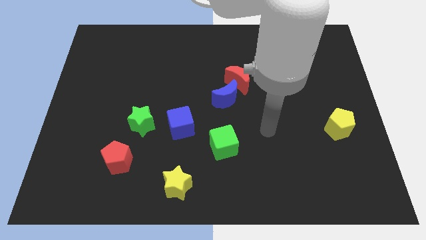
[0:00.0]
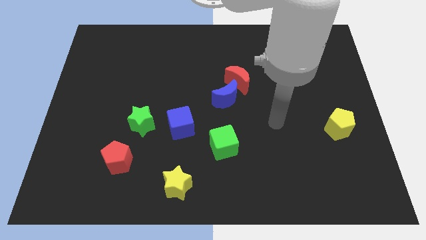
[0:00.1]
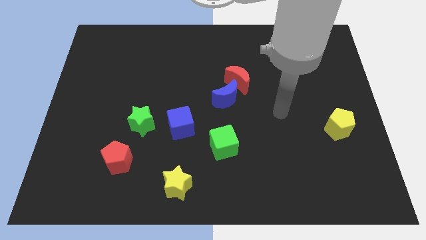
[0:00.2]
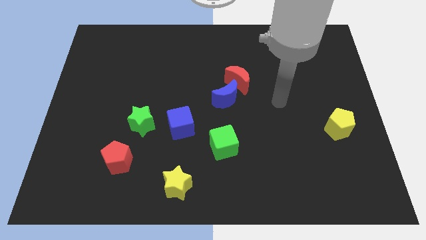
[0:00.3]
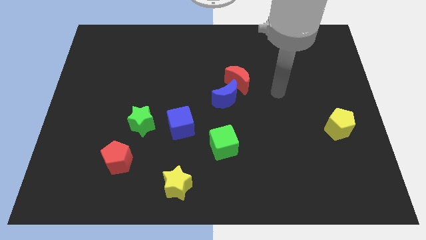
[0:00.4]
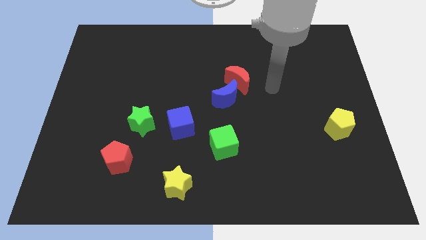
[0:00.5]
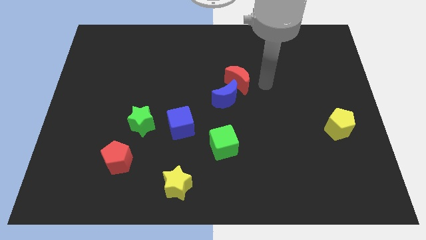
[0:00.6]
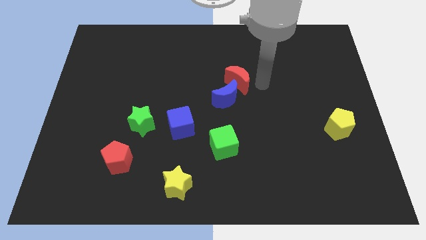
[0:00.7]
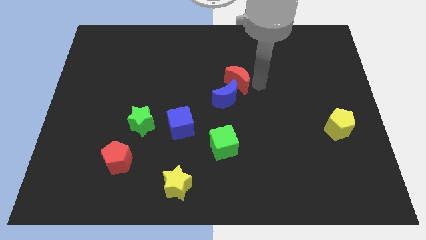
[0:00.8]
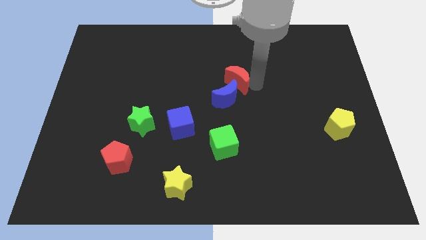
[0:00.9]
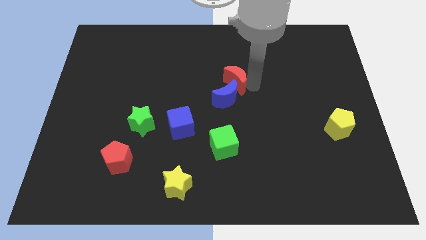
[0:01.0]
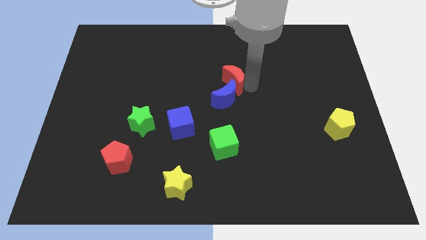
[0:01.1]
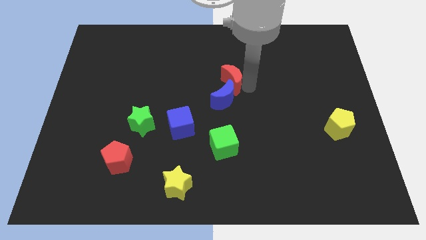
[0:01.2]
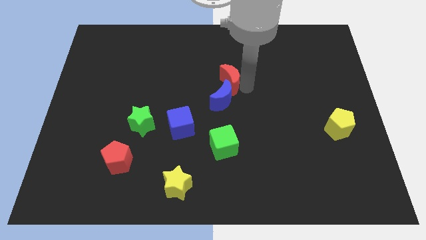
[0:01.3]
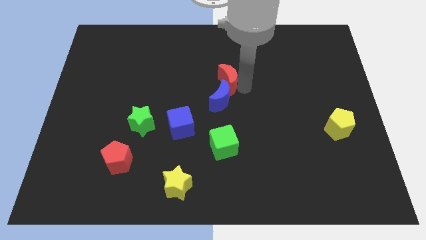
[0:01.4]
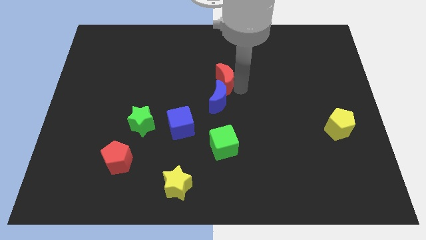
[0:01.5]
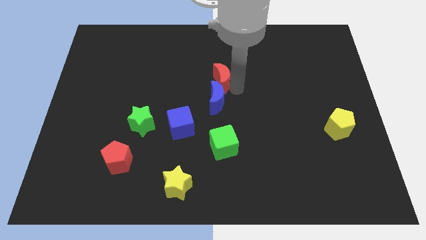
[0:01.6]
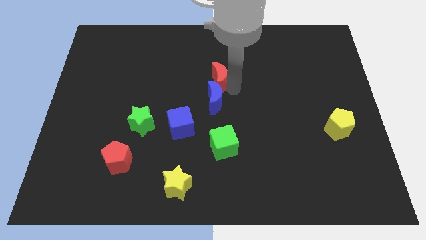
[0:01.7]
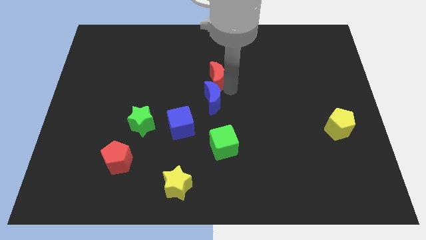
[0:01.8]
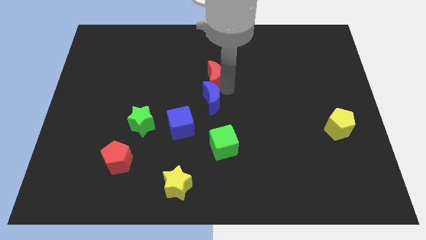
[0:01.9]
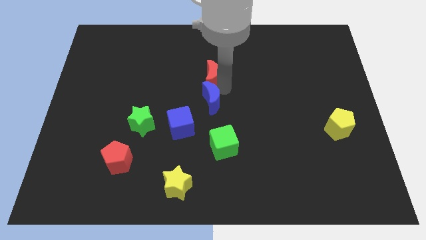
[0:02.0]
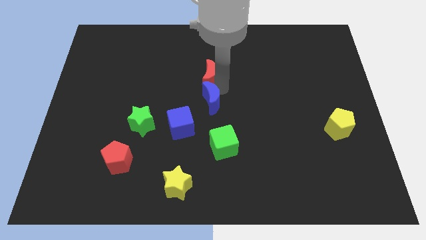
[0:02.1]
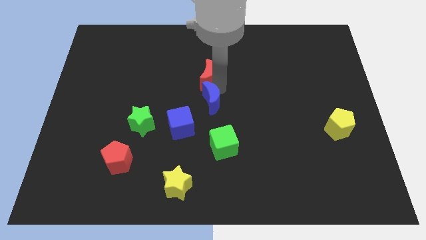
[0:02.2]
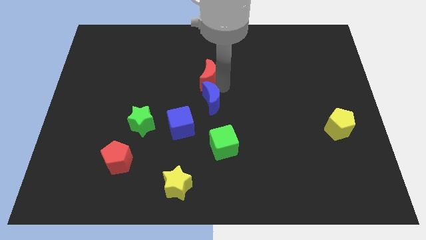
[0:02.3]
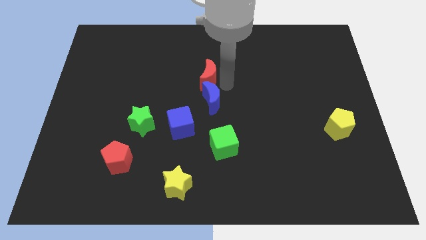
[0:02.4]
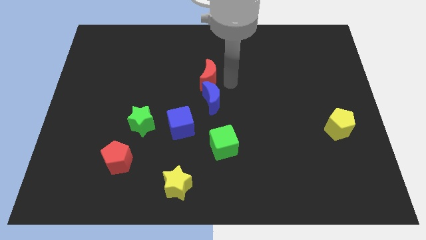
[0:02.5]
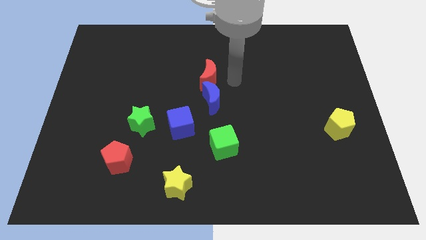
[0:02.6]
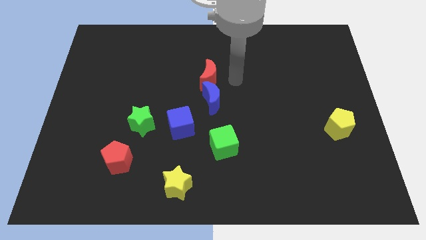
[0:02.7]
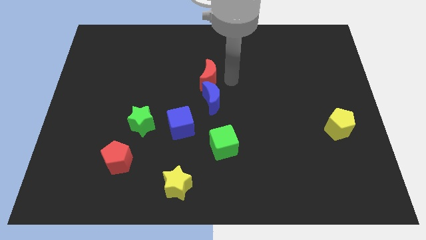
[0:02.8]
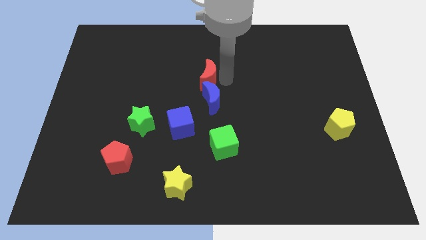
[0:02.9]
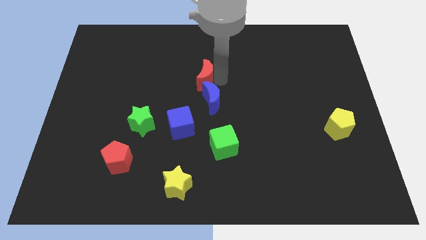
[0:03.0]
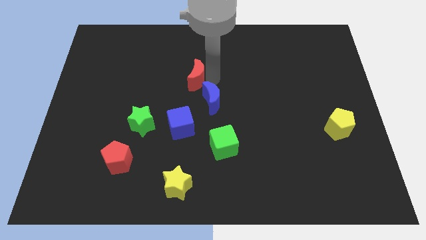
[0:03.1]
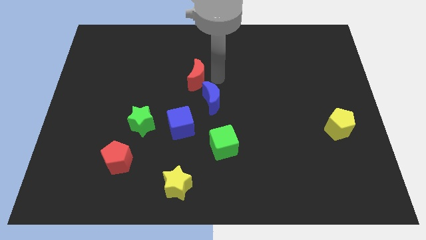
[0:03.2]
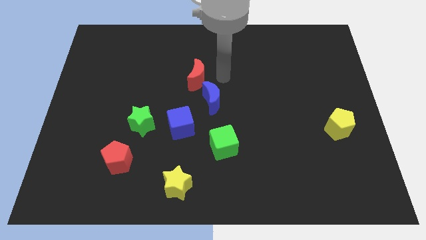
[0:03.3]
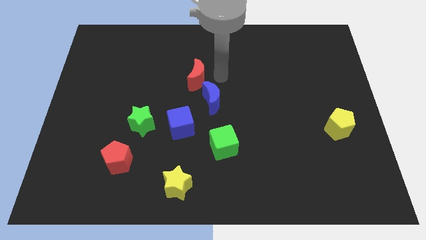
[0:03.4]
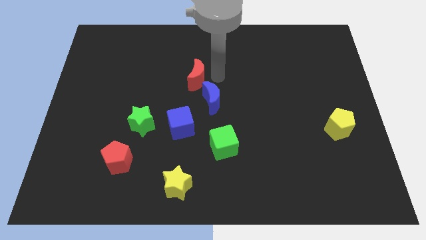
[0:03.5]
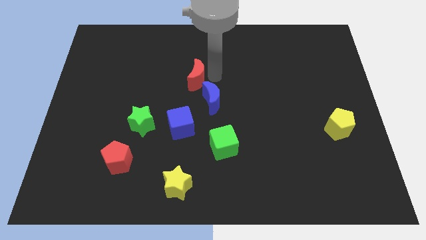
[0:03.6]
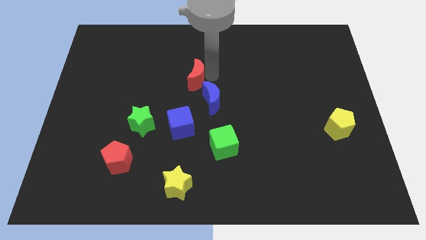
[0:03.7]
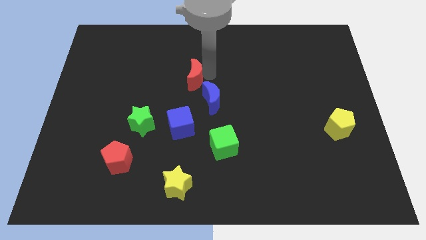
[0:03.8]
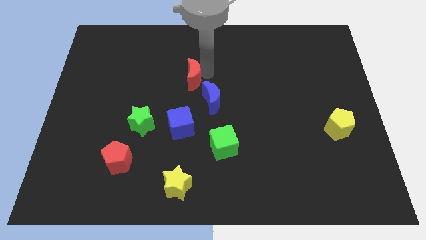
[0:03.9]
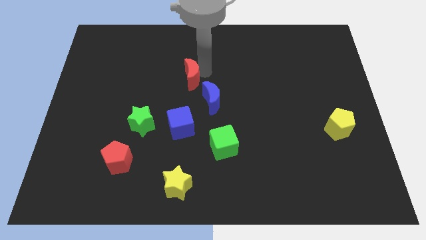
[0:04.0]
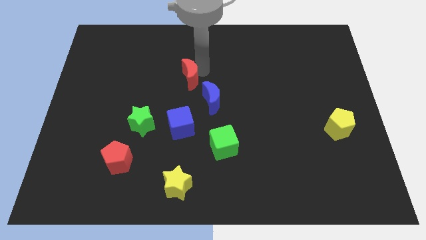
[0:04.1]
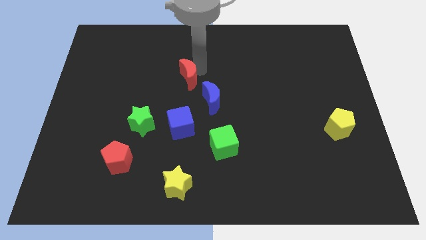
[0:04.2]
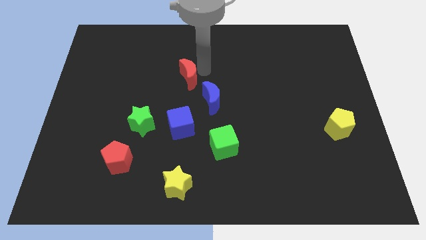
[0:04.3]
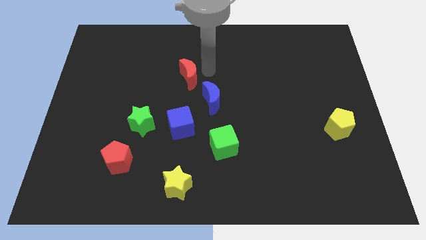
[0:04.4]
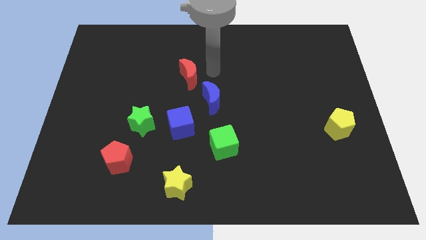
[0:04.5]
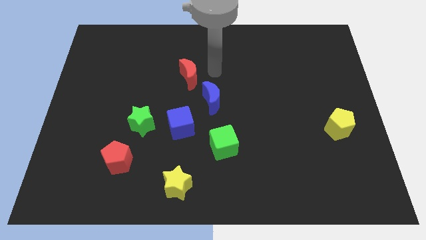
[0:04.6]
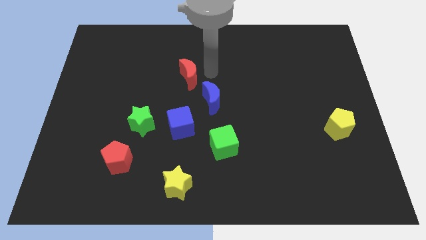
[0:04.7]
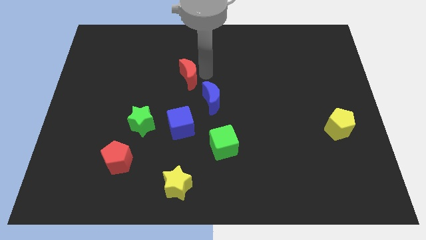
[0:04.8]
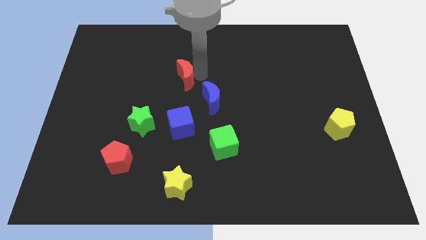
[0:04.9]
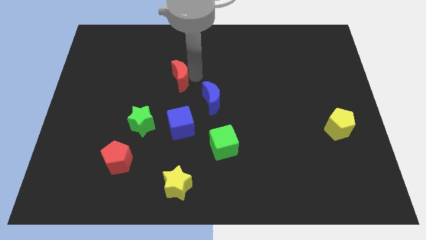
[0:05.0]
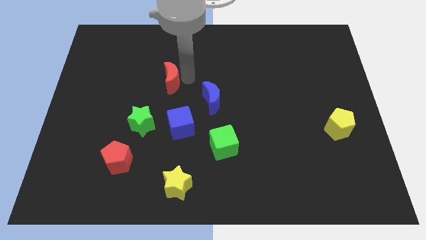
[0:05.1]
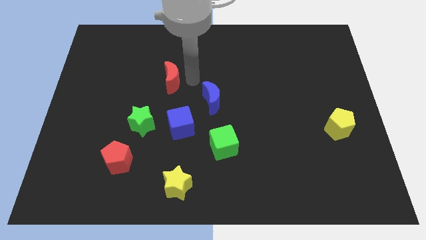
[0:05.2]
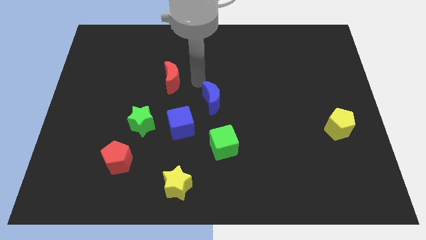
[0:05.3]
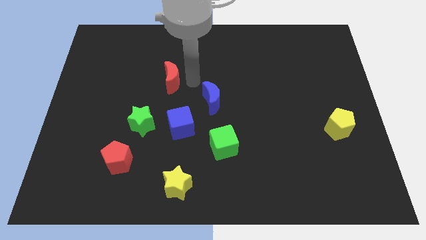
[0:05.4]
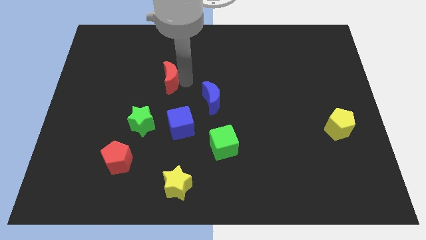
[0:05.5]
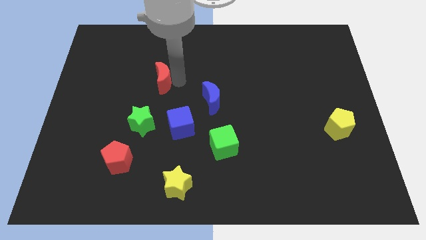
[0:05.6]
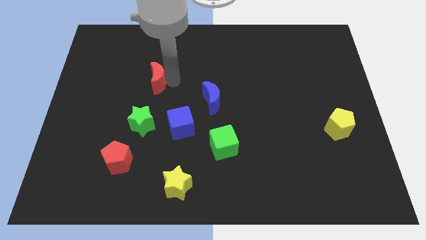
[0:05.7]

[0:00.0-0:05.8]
move the red moon to the left

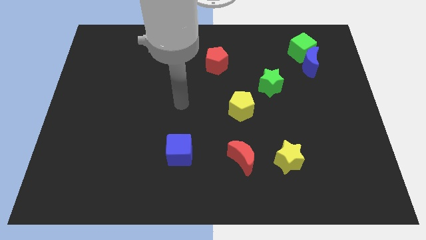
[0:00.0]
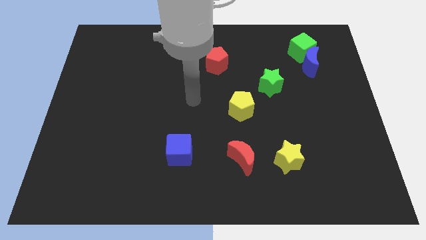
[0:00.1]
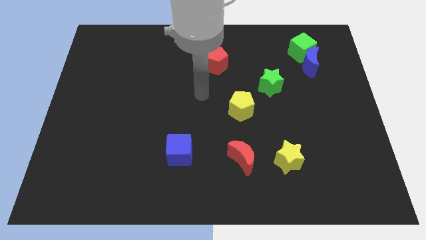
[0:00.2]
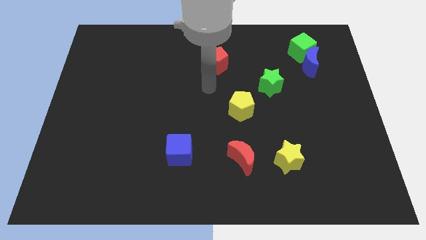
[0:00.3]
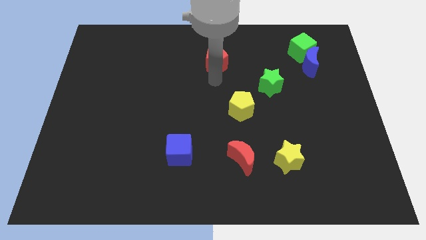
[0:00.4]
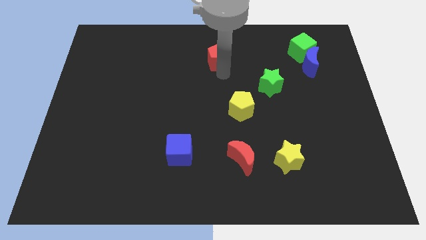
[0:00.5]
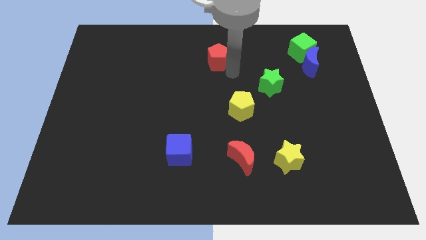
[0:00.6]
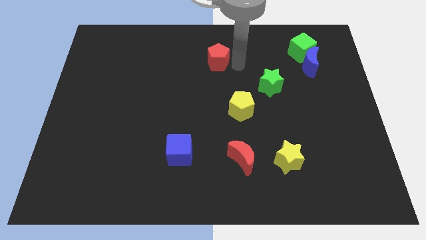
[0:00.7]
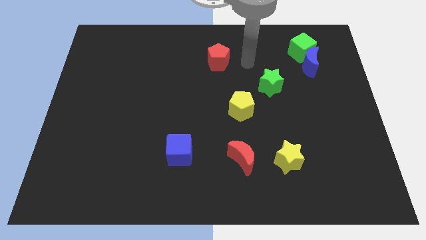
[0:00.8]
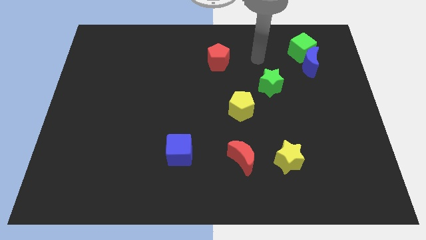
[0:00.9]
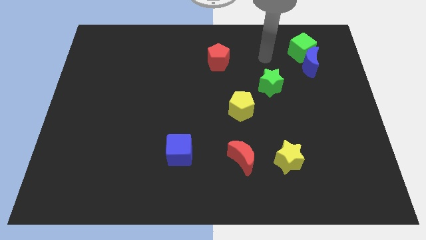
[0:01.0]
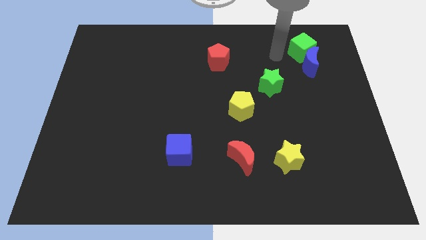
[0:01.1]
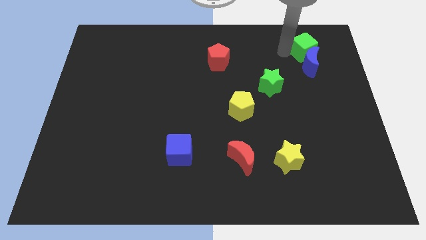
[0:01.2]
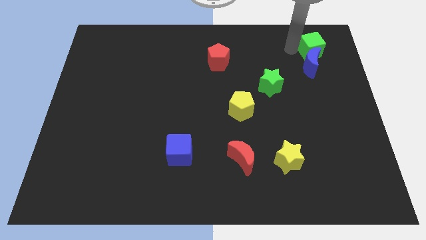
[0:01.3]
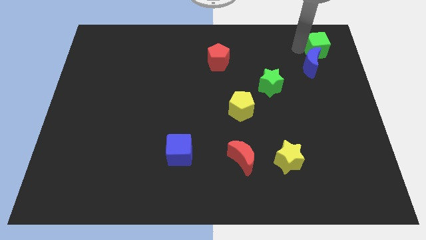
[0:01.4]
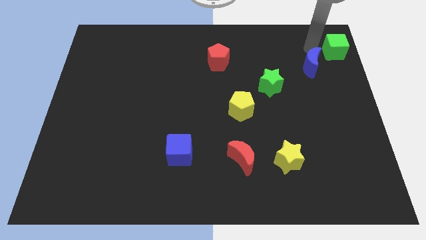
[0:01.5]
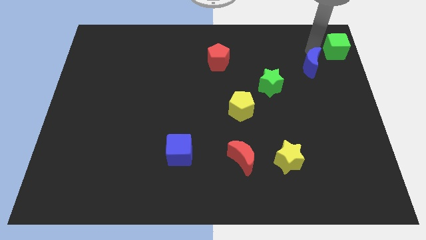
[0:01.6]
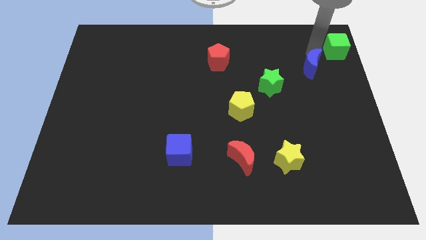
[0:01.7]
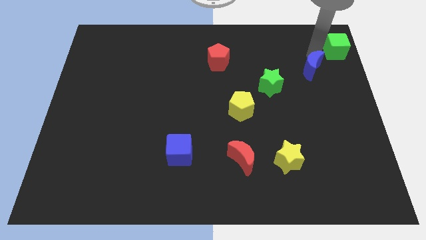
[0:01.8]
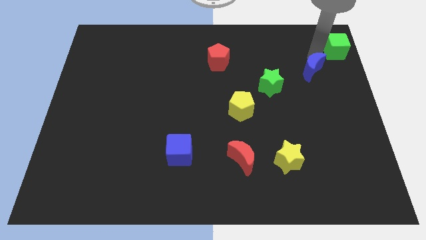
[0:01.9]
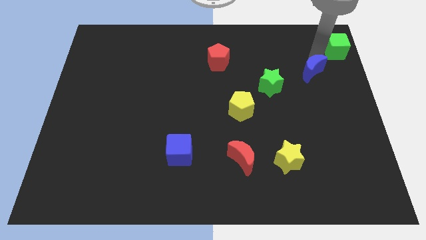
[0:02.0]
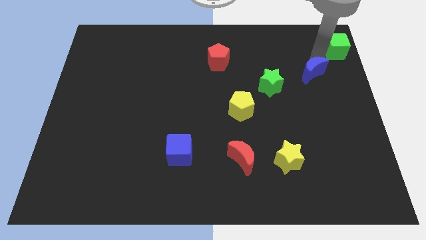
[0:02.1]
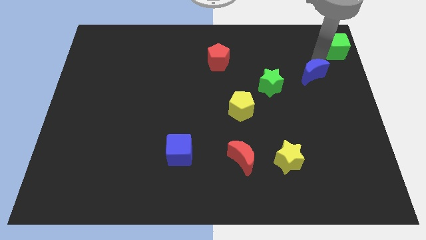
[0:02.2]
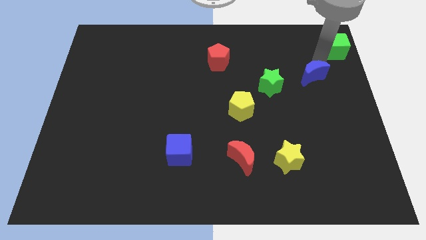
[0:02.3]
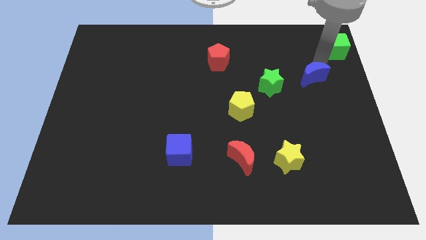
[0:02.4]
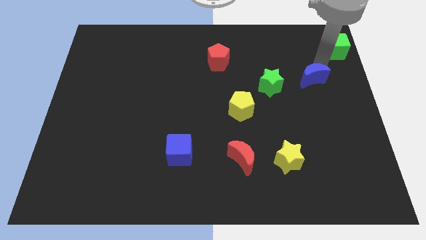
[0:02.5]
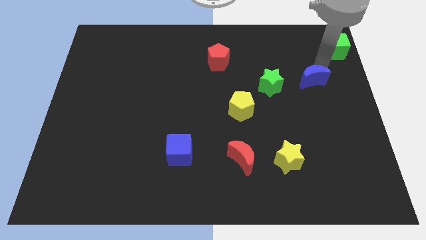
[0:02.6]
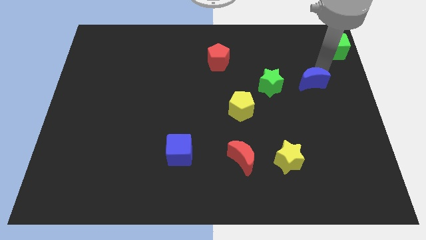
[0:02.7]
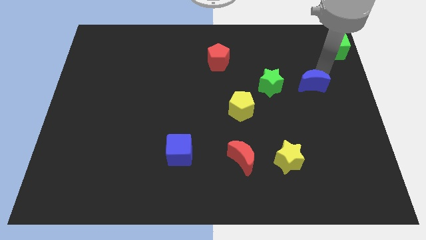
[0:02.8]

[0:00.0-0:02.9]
slide the blue moon slightly down
